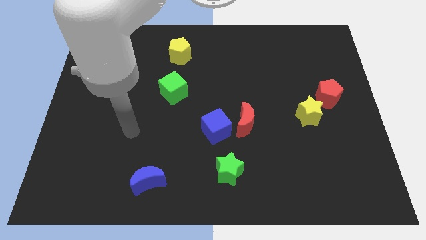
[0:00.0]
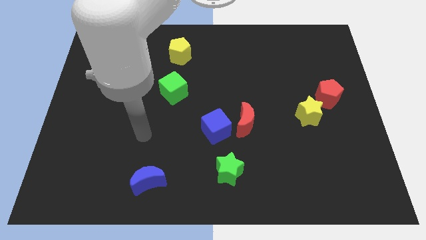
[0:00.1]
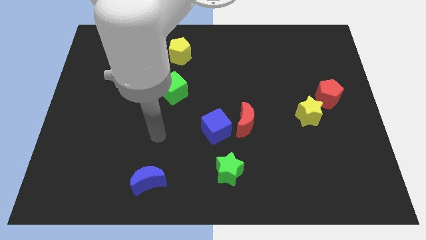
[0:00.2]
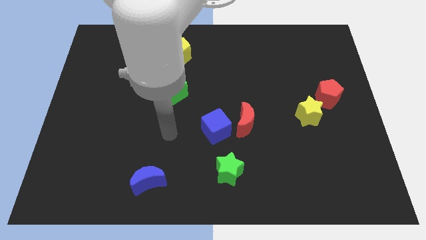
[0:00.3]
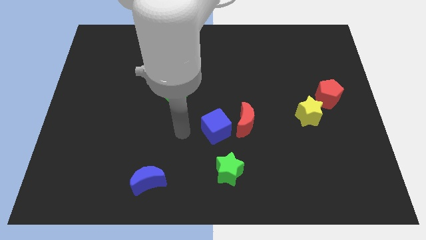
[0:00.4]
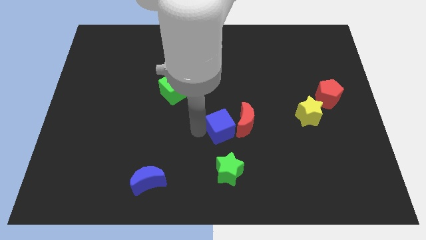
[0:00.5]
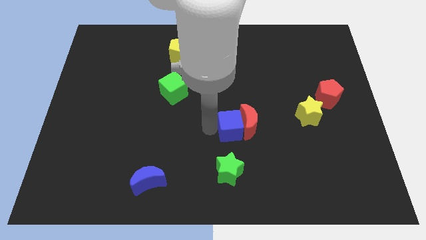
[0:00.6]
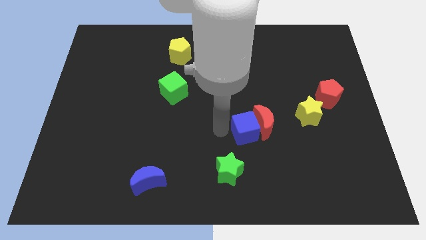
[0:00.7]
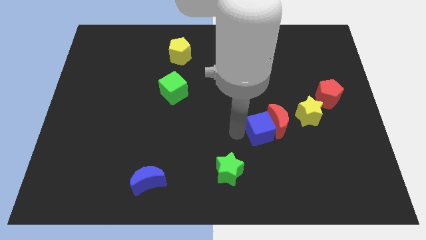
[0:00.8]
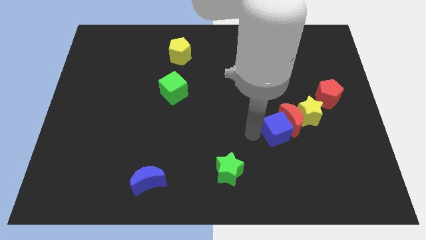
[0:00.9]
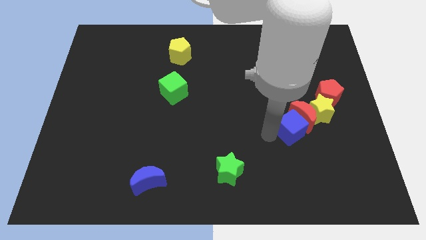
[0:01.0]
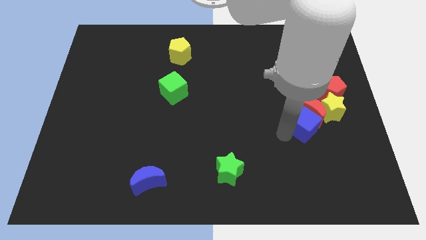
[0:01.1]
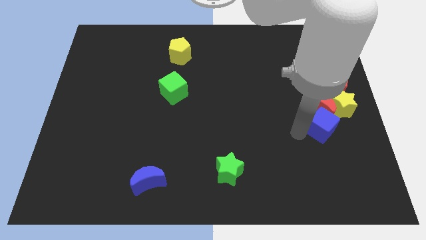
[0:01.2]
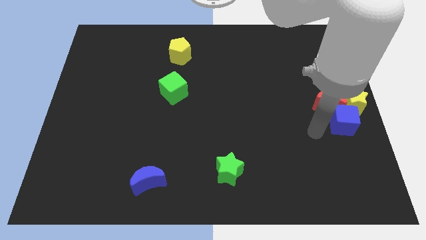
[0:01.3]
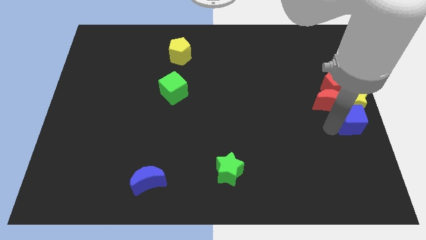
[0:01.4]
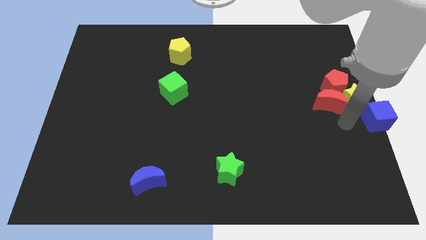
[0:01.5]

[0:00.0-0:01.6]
pull the red moon apart from the blue cube

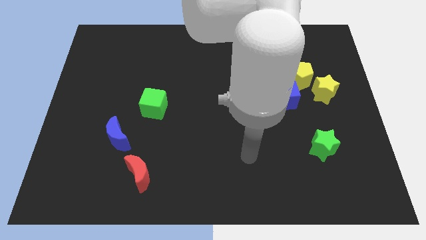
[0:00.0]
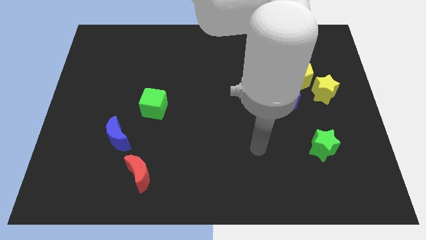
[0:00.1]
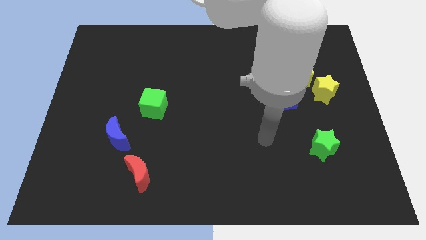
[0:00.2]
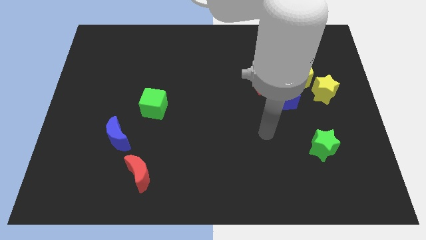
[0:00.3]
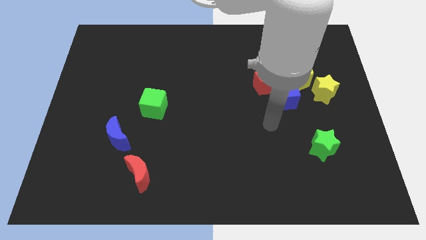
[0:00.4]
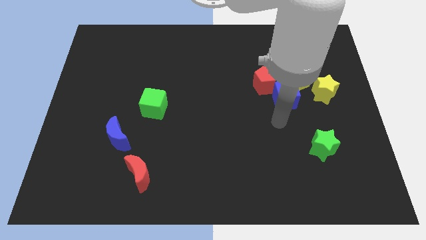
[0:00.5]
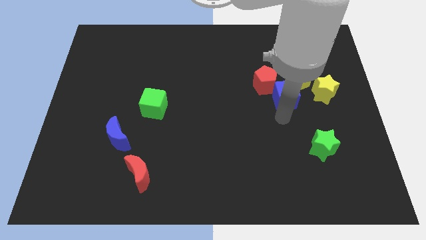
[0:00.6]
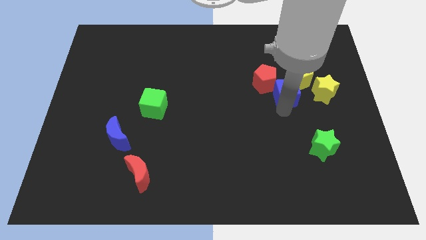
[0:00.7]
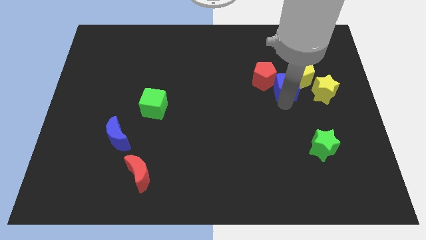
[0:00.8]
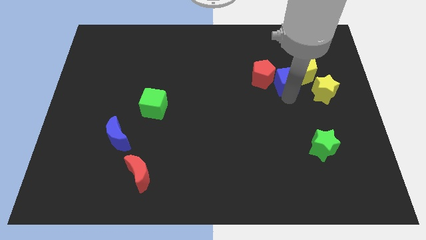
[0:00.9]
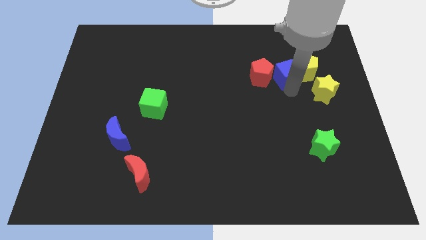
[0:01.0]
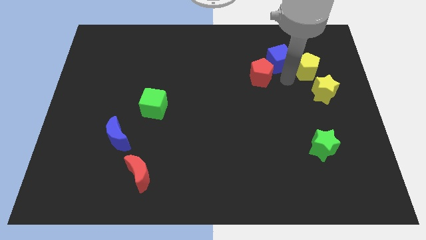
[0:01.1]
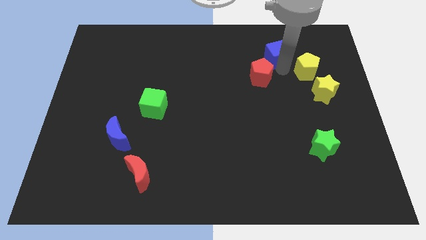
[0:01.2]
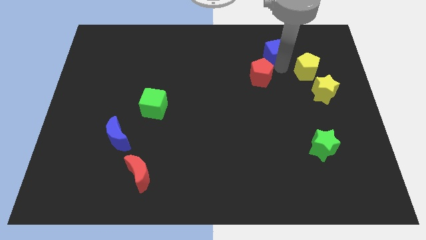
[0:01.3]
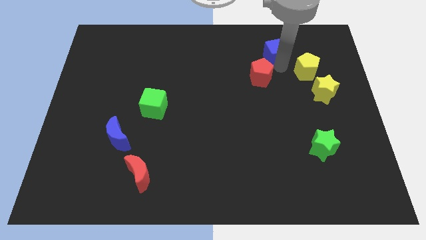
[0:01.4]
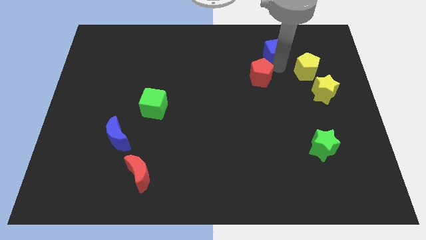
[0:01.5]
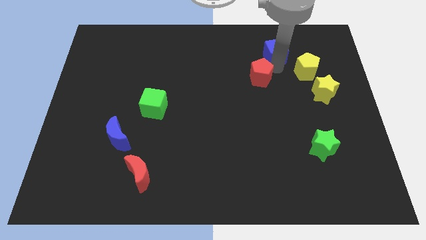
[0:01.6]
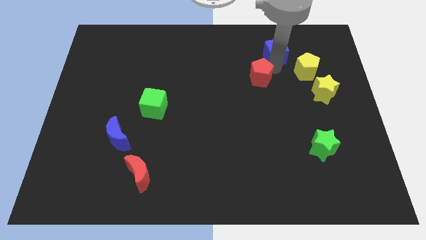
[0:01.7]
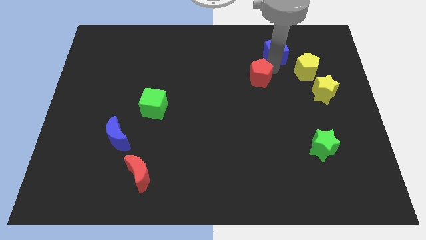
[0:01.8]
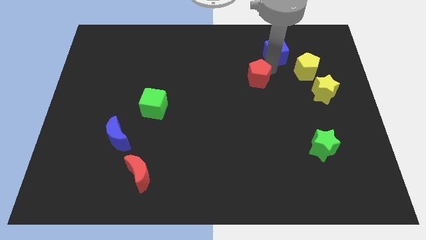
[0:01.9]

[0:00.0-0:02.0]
move the red pentagon away from the blue cube and yellow pentagon

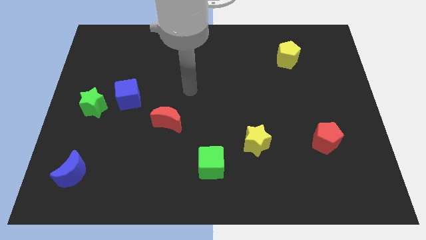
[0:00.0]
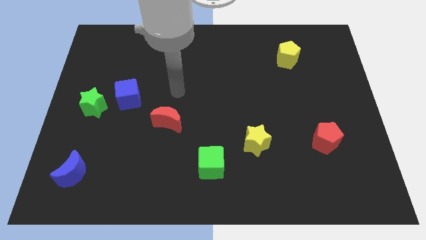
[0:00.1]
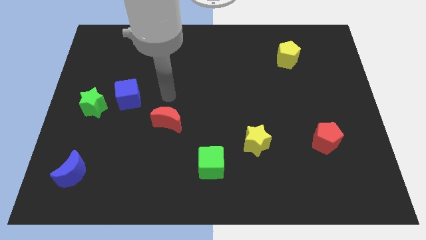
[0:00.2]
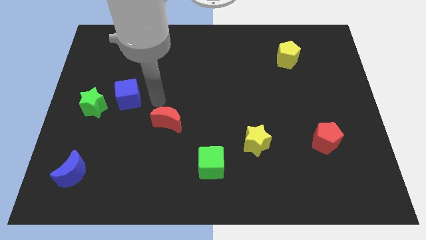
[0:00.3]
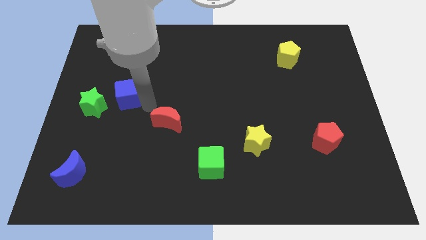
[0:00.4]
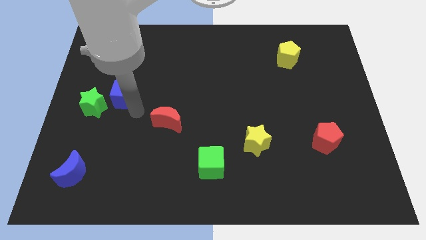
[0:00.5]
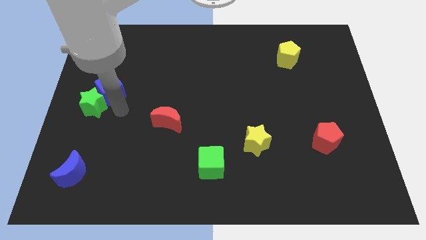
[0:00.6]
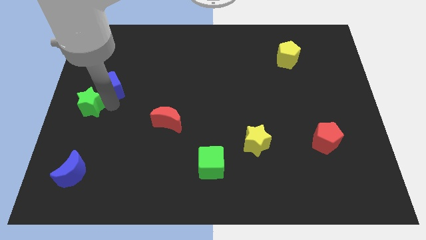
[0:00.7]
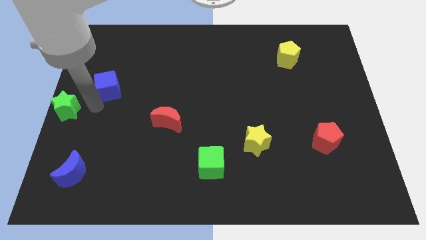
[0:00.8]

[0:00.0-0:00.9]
separate the blue cube from the green star

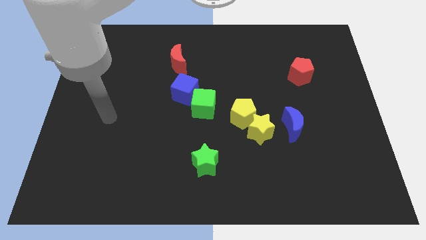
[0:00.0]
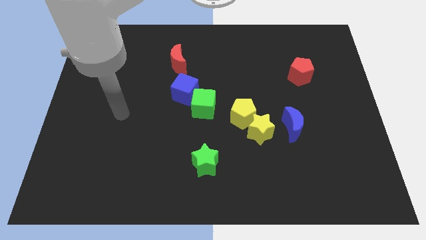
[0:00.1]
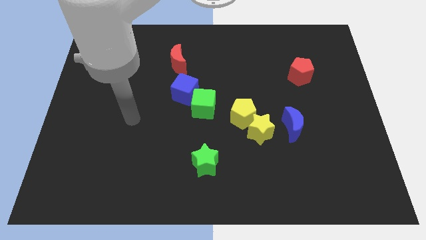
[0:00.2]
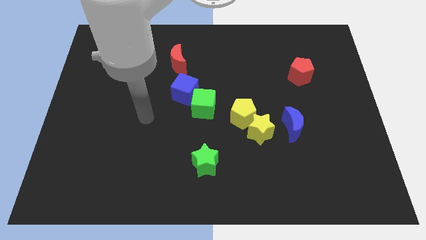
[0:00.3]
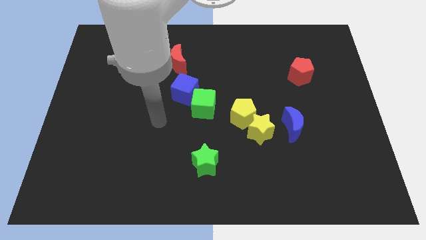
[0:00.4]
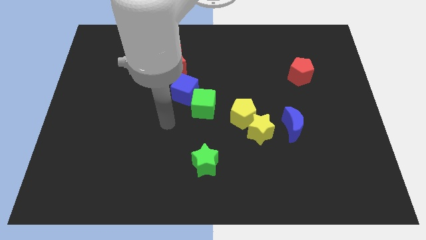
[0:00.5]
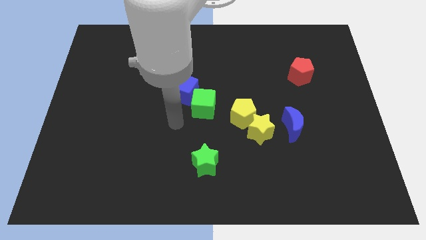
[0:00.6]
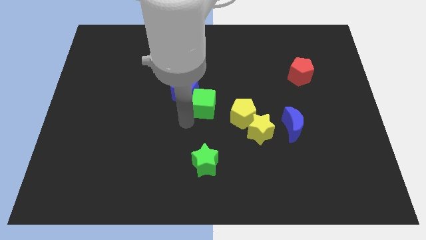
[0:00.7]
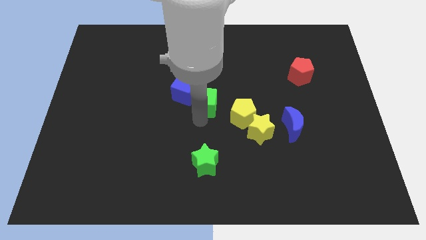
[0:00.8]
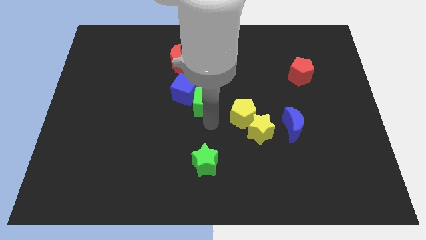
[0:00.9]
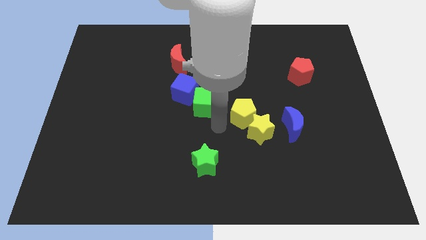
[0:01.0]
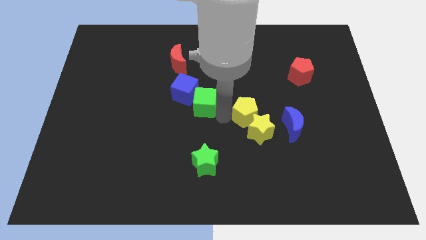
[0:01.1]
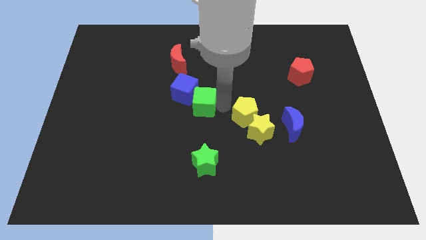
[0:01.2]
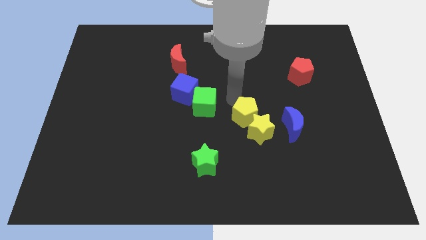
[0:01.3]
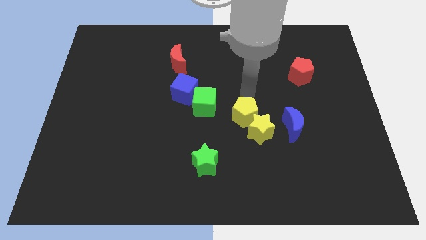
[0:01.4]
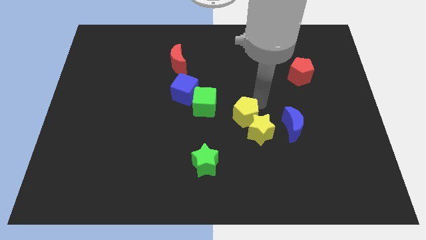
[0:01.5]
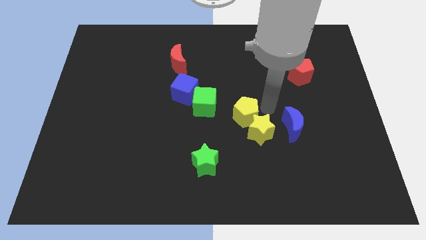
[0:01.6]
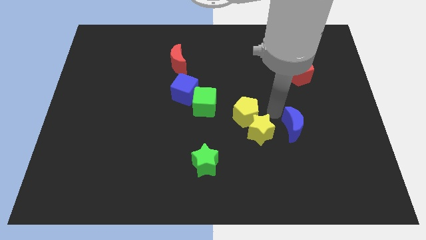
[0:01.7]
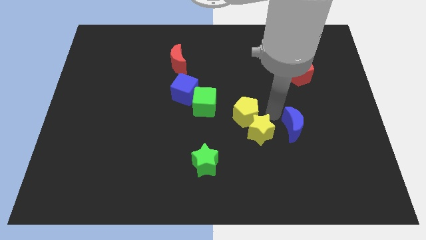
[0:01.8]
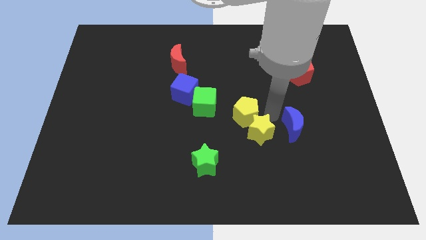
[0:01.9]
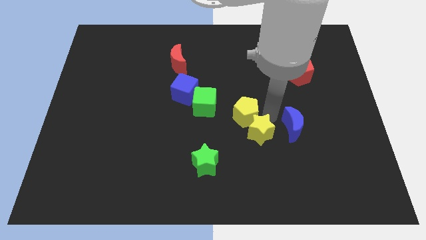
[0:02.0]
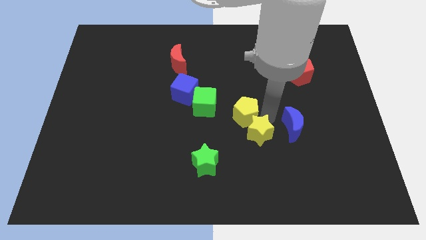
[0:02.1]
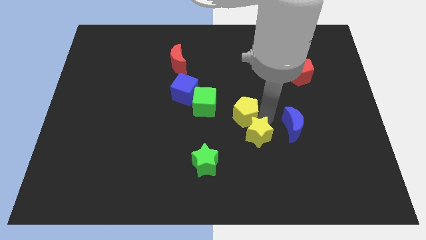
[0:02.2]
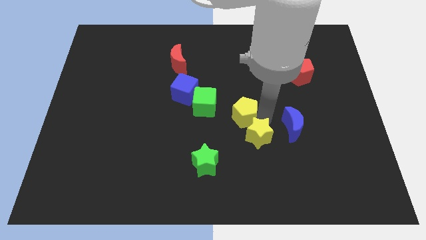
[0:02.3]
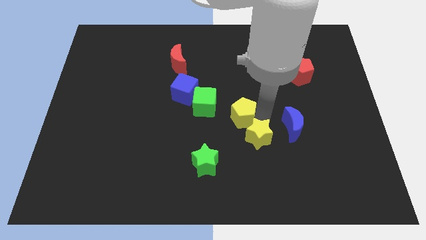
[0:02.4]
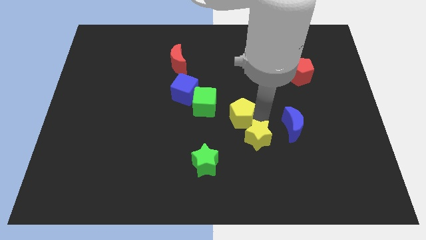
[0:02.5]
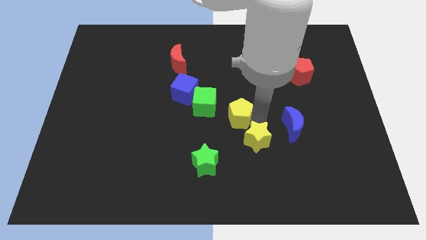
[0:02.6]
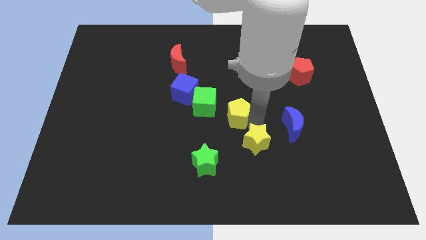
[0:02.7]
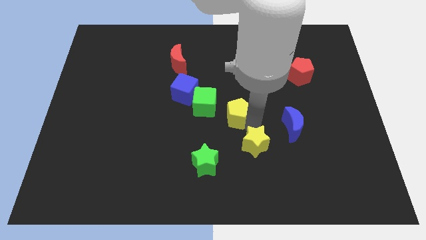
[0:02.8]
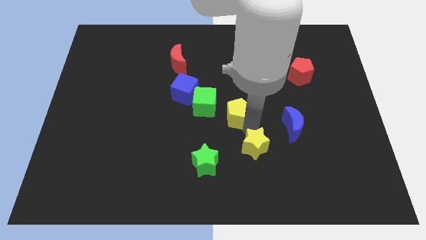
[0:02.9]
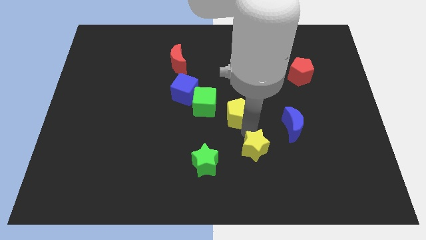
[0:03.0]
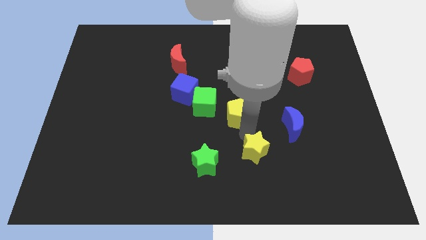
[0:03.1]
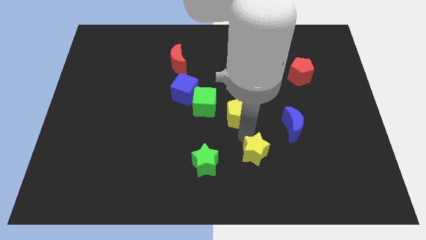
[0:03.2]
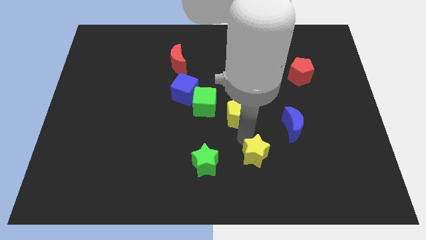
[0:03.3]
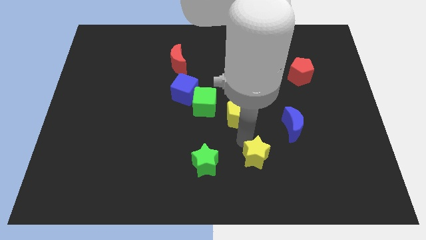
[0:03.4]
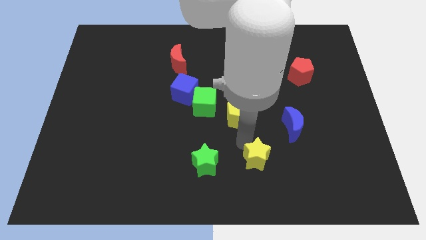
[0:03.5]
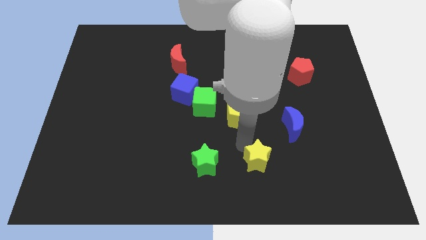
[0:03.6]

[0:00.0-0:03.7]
pull the yellow star apart from the yellow pentagon and blue moon

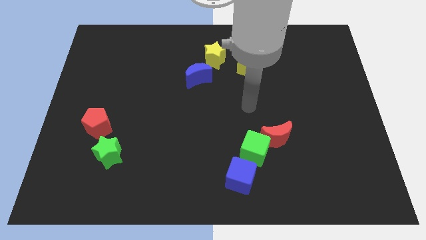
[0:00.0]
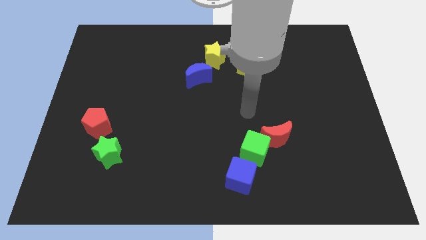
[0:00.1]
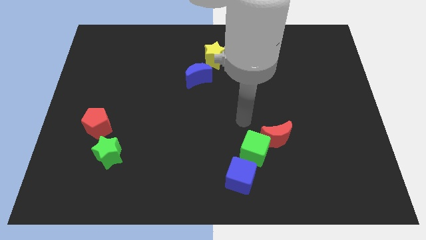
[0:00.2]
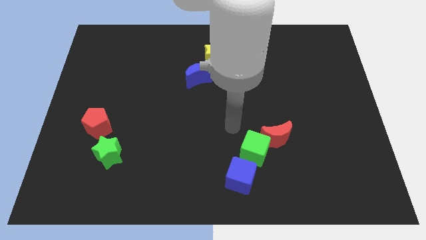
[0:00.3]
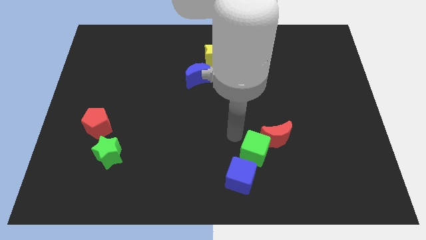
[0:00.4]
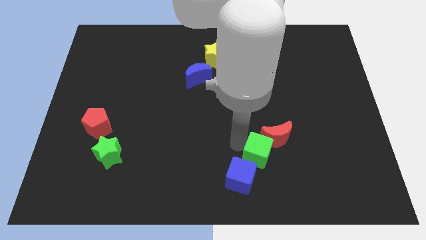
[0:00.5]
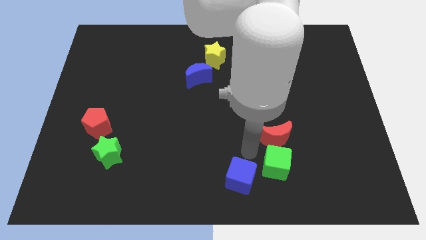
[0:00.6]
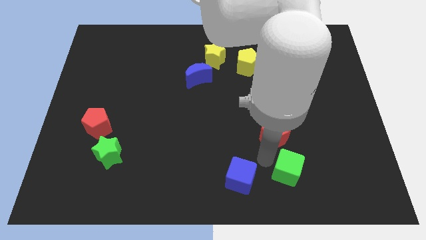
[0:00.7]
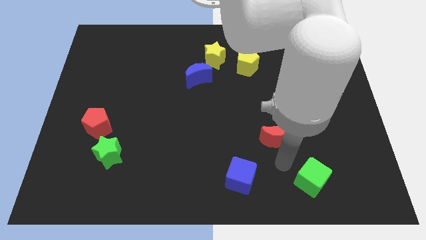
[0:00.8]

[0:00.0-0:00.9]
separate the red moon from the green cube
